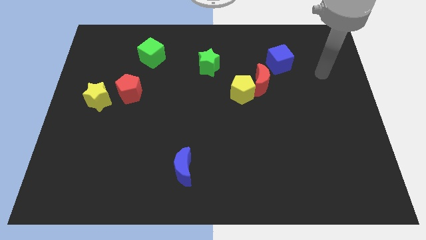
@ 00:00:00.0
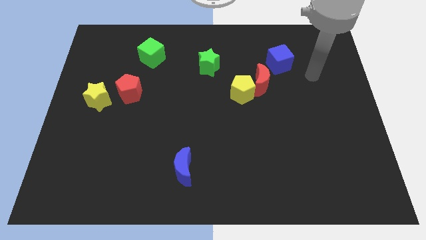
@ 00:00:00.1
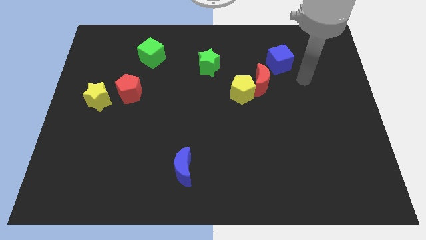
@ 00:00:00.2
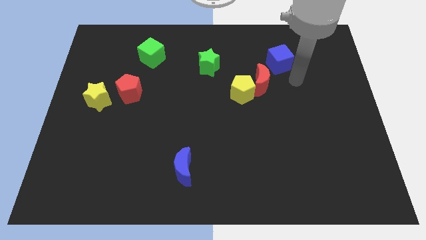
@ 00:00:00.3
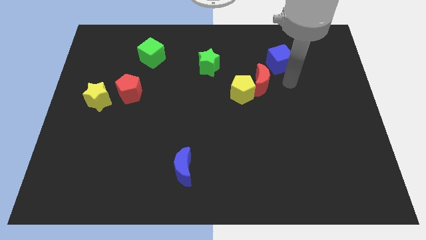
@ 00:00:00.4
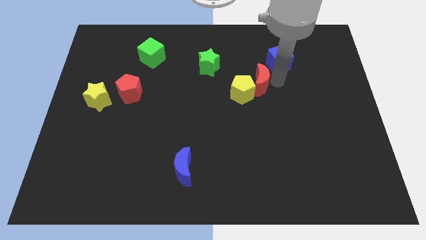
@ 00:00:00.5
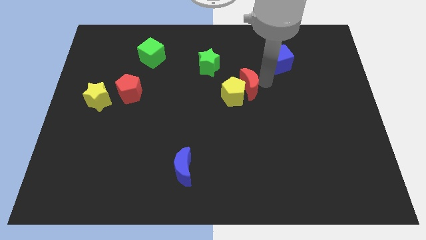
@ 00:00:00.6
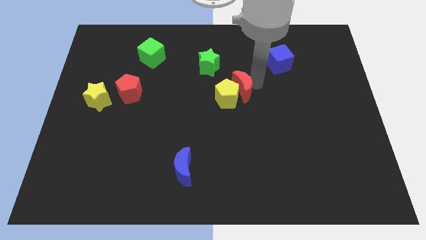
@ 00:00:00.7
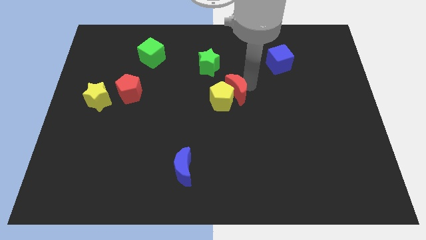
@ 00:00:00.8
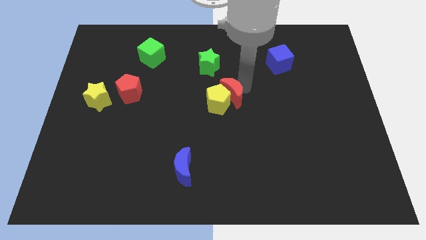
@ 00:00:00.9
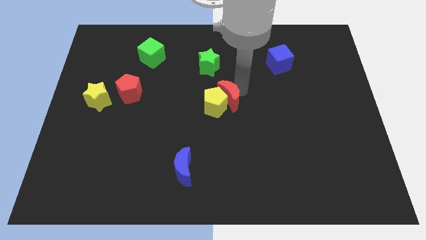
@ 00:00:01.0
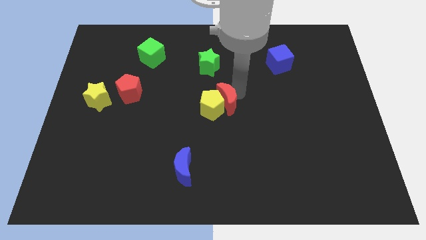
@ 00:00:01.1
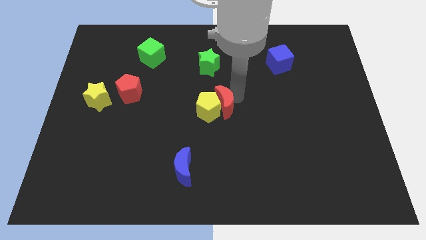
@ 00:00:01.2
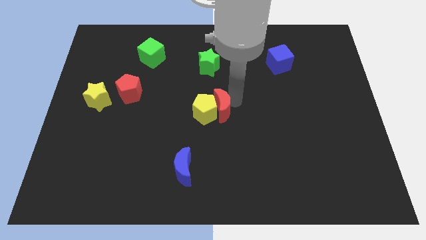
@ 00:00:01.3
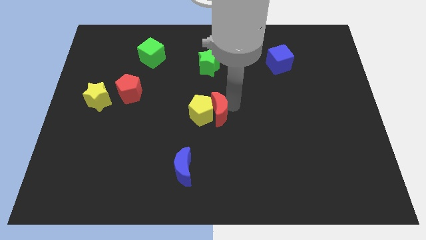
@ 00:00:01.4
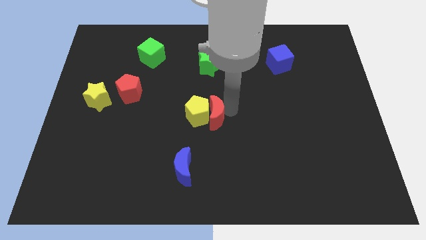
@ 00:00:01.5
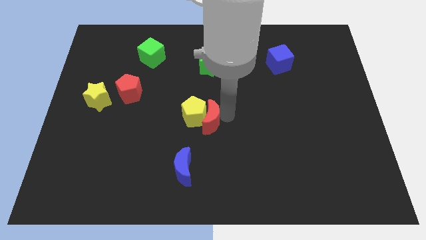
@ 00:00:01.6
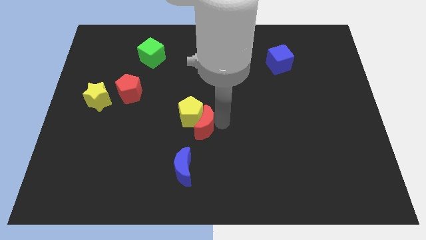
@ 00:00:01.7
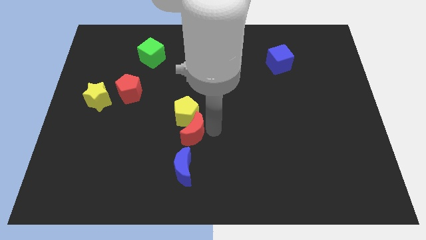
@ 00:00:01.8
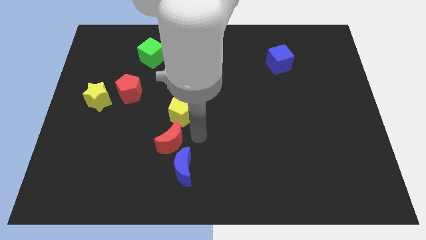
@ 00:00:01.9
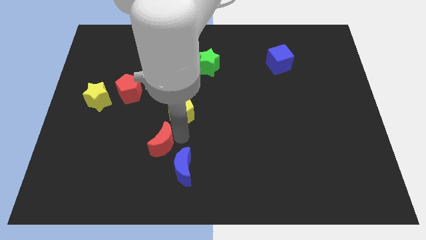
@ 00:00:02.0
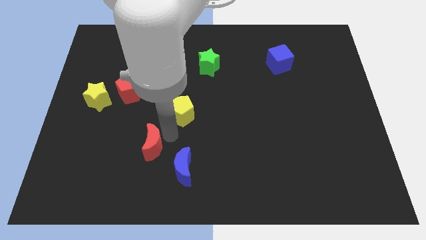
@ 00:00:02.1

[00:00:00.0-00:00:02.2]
pull the yellow pentagon apart from the red moon

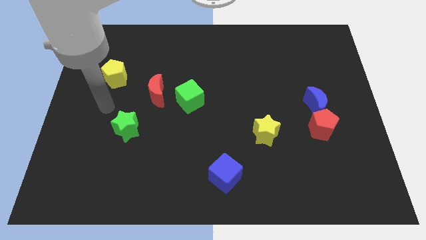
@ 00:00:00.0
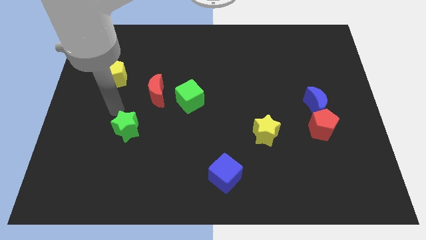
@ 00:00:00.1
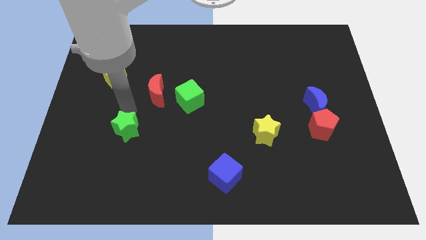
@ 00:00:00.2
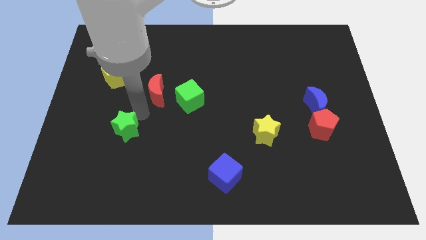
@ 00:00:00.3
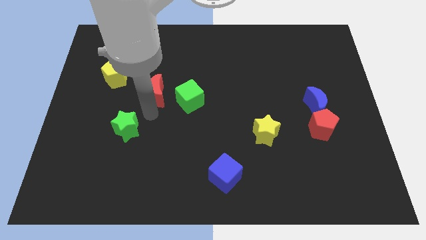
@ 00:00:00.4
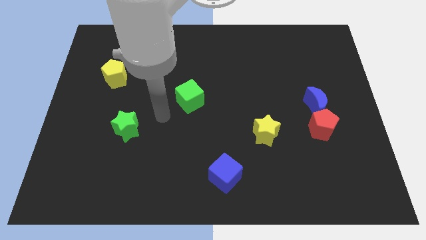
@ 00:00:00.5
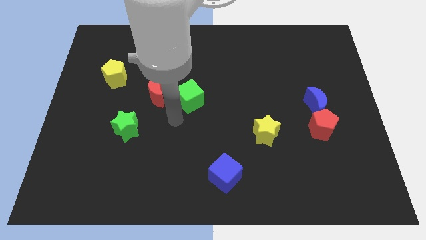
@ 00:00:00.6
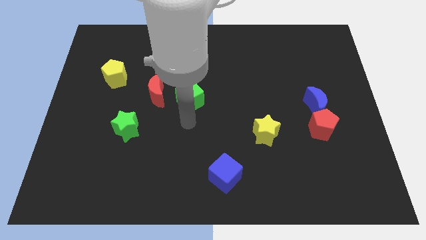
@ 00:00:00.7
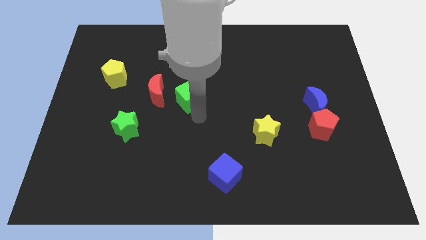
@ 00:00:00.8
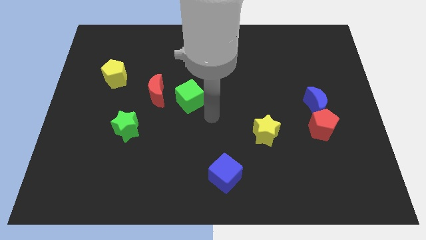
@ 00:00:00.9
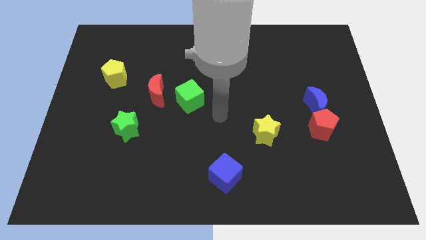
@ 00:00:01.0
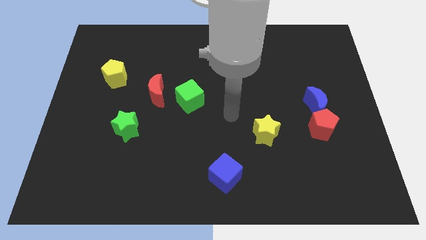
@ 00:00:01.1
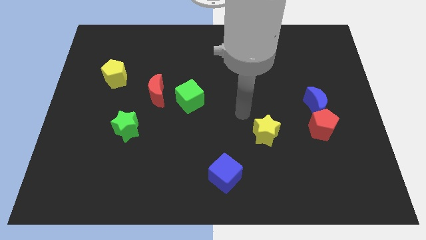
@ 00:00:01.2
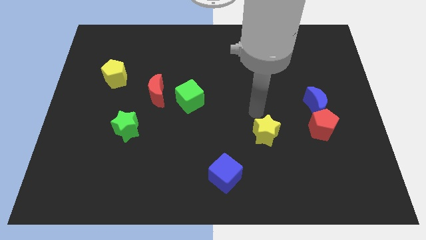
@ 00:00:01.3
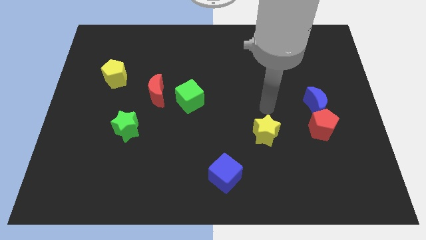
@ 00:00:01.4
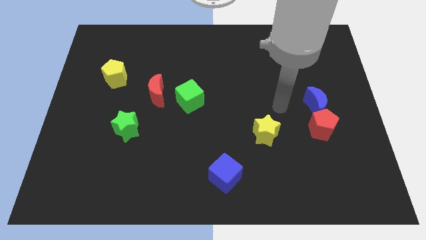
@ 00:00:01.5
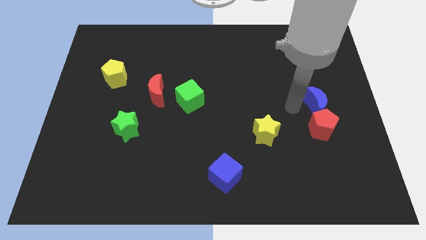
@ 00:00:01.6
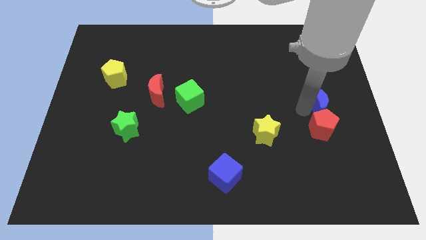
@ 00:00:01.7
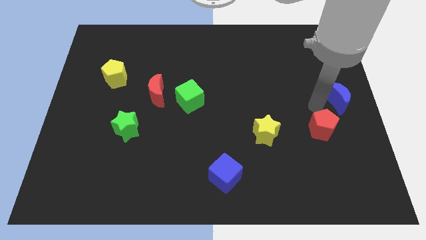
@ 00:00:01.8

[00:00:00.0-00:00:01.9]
separate the red pentagon from the blue moon

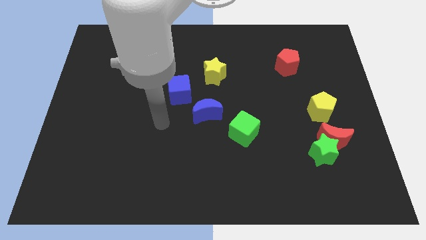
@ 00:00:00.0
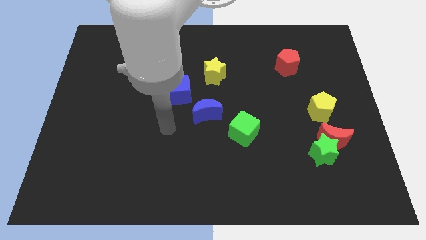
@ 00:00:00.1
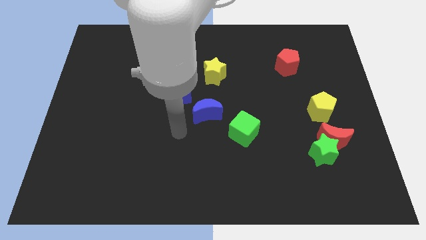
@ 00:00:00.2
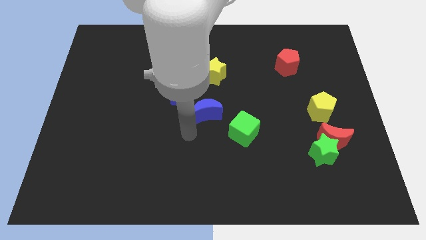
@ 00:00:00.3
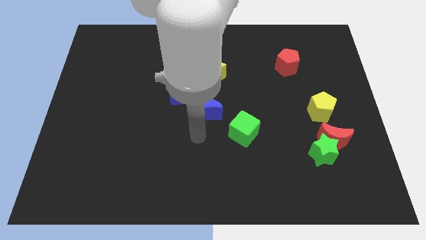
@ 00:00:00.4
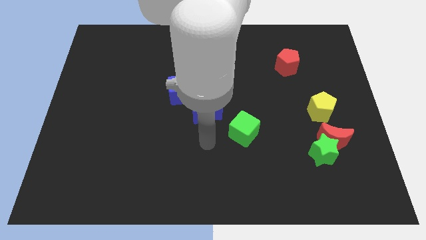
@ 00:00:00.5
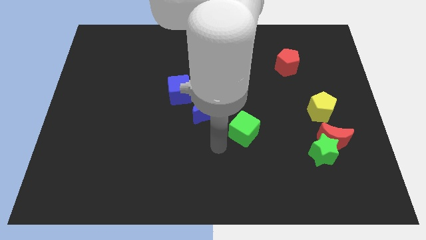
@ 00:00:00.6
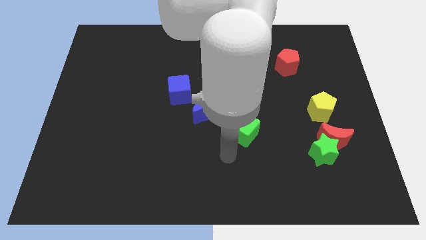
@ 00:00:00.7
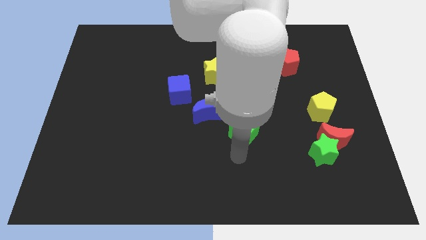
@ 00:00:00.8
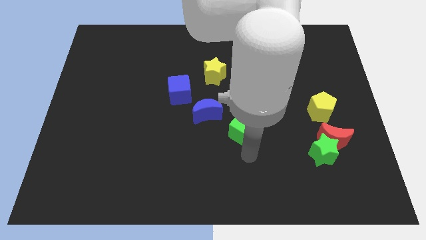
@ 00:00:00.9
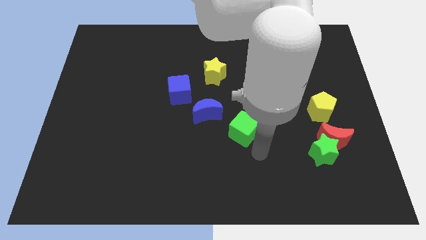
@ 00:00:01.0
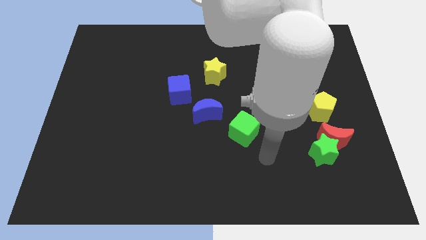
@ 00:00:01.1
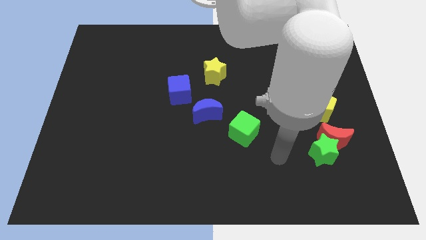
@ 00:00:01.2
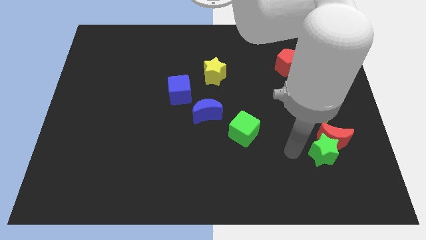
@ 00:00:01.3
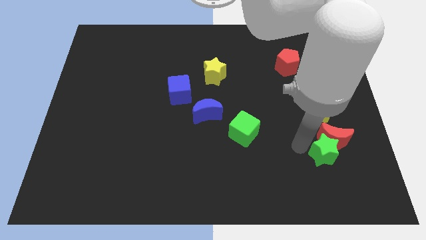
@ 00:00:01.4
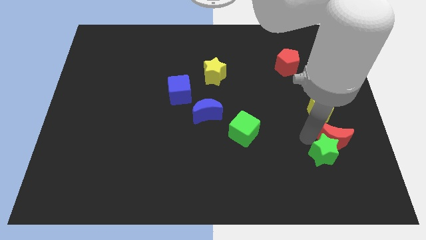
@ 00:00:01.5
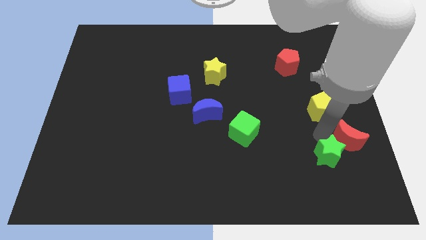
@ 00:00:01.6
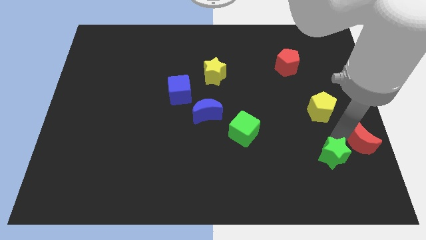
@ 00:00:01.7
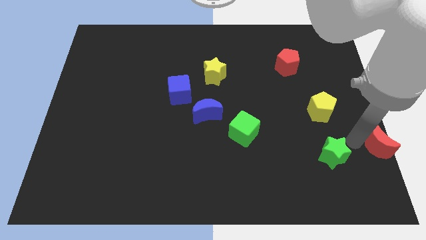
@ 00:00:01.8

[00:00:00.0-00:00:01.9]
move the green star away from the red moon

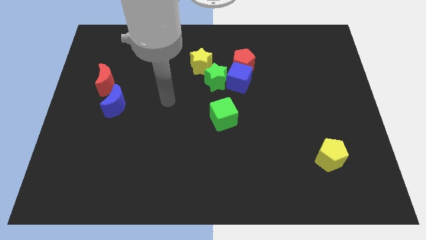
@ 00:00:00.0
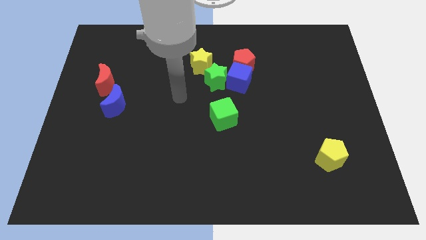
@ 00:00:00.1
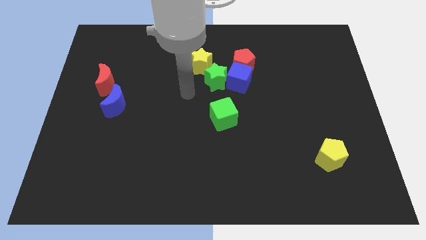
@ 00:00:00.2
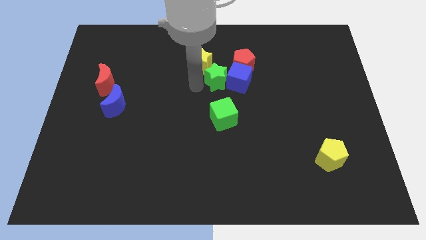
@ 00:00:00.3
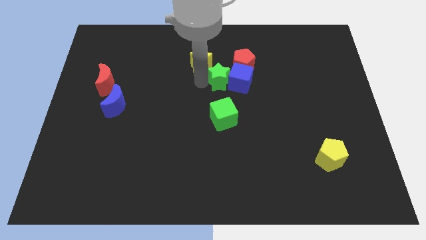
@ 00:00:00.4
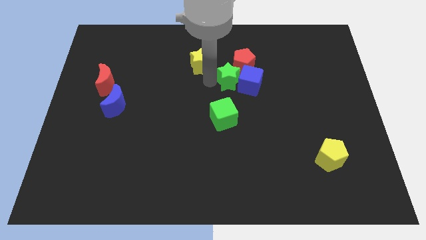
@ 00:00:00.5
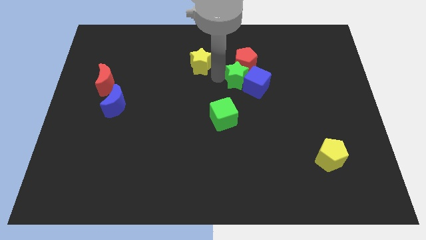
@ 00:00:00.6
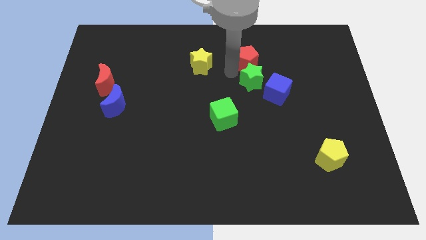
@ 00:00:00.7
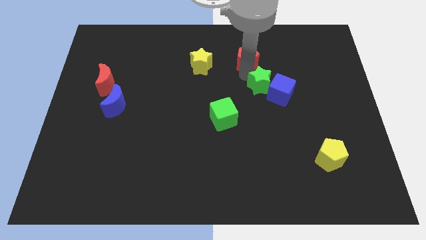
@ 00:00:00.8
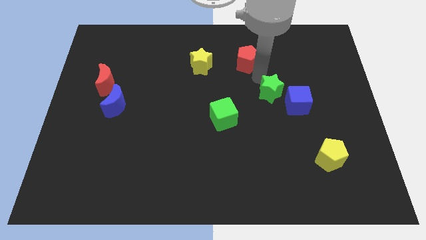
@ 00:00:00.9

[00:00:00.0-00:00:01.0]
separate the blue cube from the red pentagon and green star

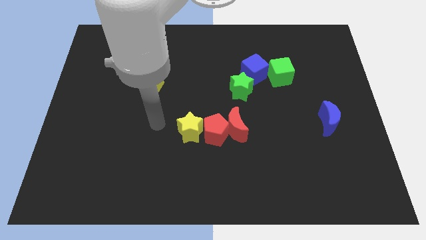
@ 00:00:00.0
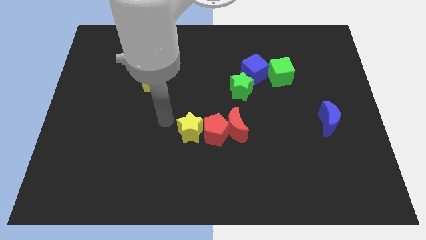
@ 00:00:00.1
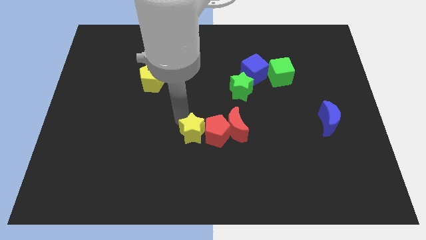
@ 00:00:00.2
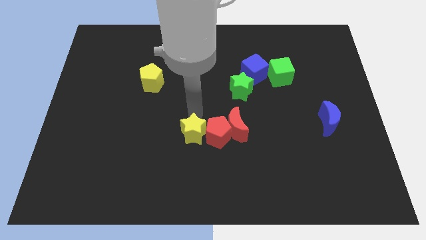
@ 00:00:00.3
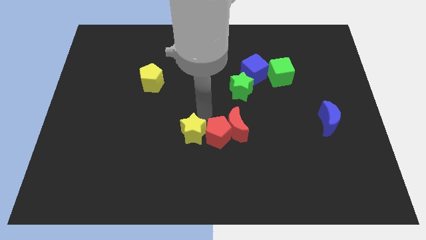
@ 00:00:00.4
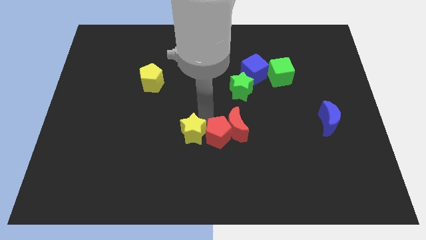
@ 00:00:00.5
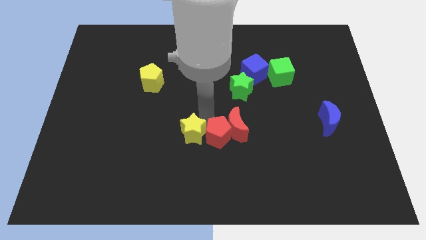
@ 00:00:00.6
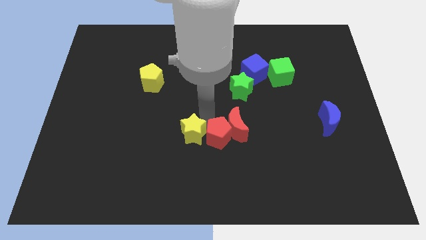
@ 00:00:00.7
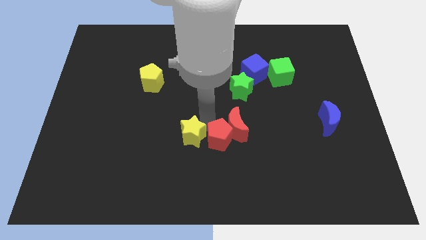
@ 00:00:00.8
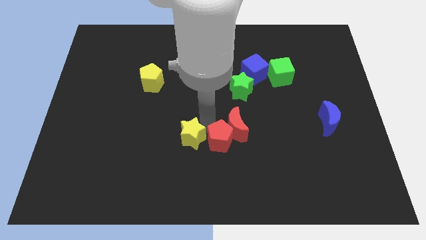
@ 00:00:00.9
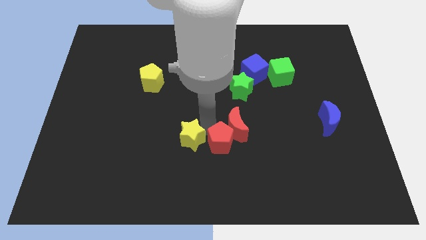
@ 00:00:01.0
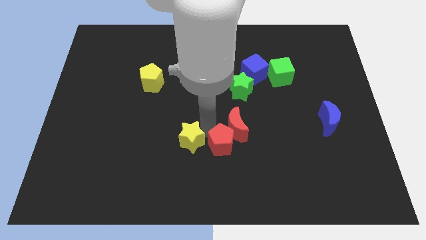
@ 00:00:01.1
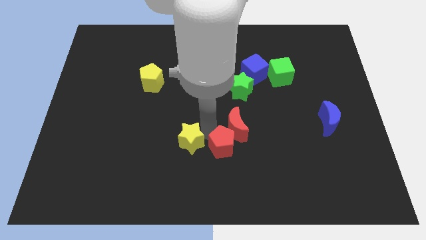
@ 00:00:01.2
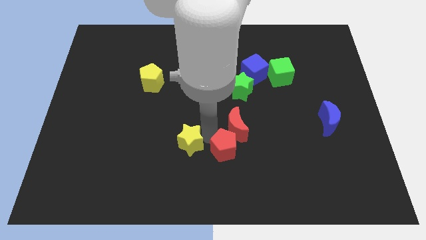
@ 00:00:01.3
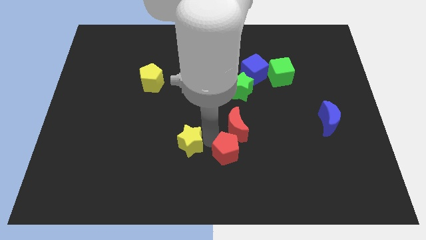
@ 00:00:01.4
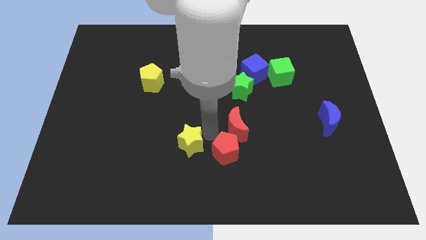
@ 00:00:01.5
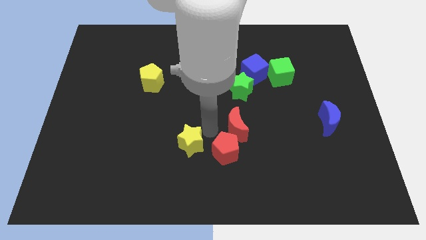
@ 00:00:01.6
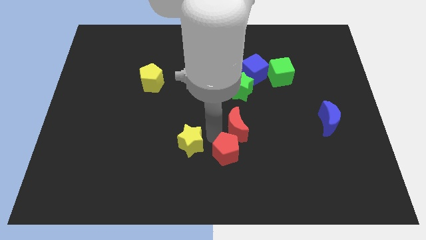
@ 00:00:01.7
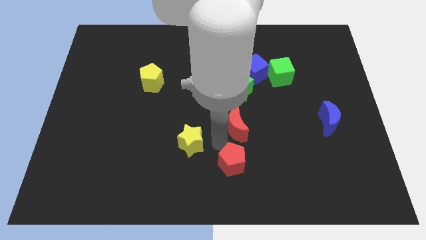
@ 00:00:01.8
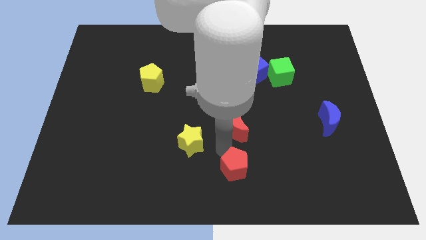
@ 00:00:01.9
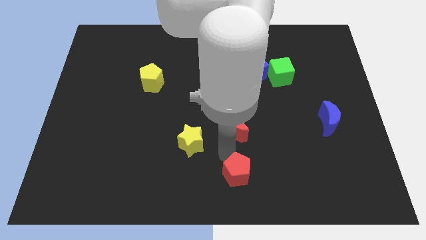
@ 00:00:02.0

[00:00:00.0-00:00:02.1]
separate the red pentagon from the red moon and yellow star
